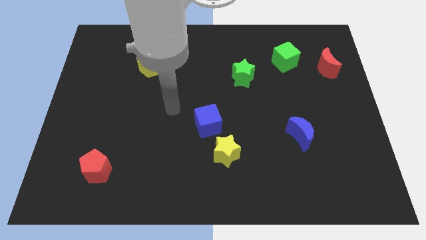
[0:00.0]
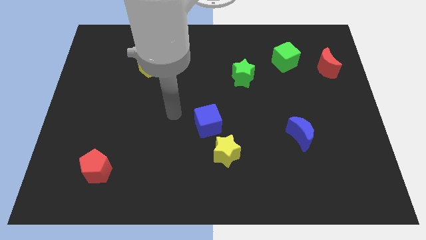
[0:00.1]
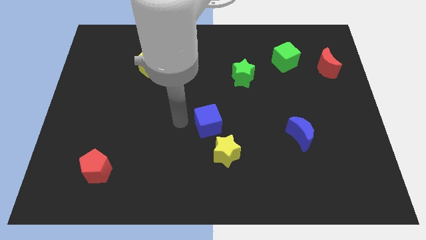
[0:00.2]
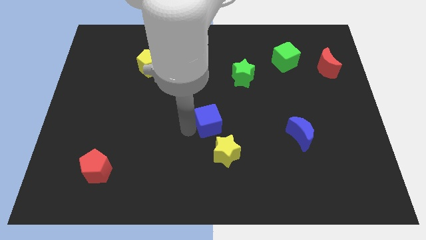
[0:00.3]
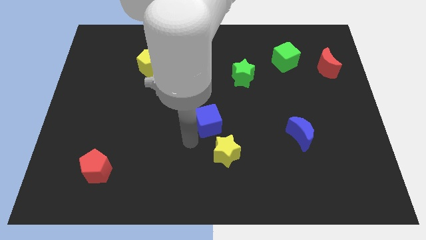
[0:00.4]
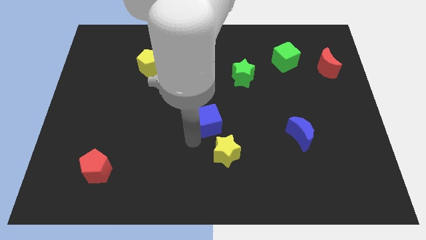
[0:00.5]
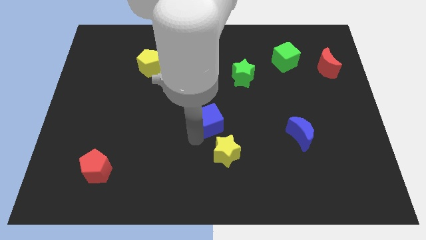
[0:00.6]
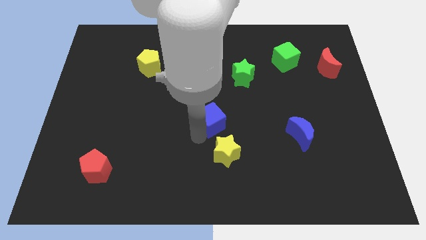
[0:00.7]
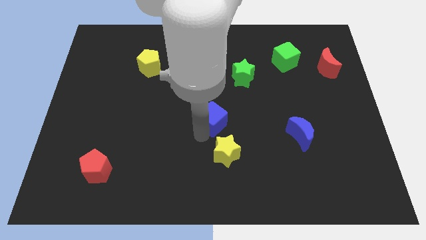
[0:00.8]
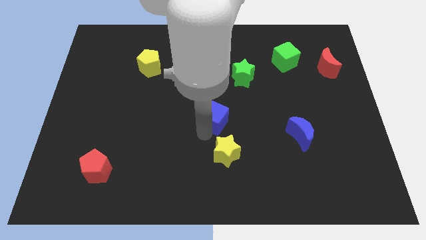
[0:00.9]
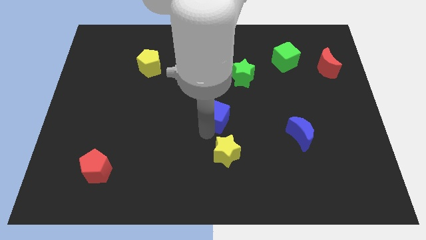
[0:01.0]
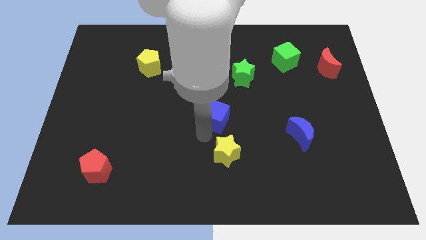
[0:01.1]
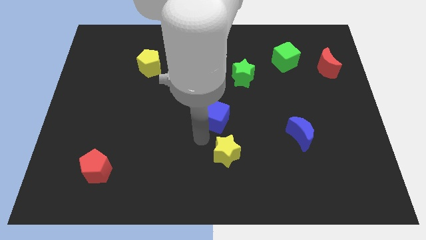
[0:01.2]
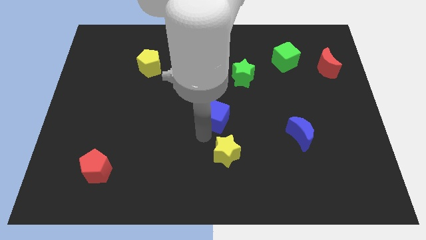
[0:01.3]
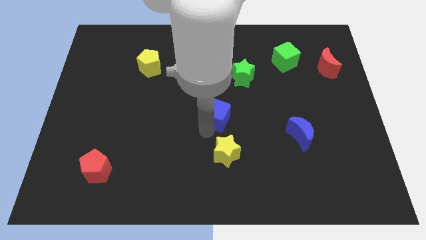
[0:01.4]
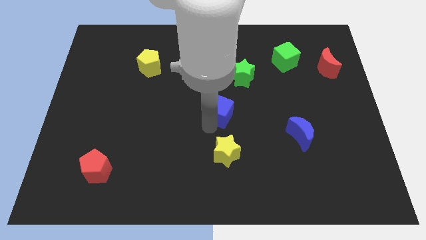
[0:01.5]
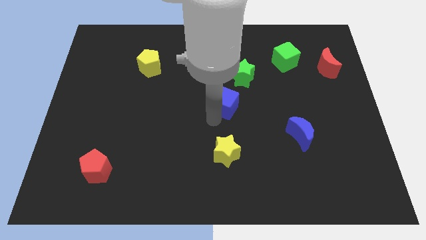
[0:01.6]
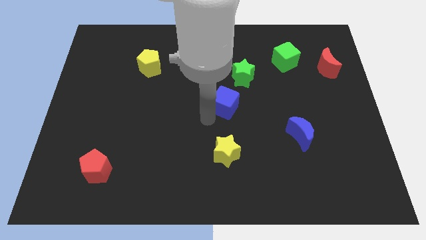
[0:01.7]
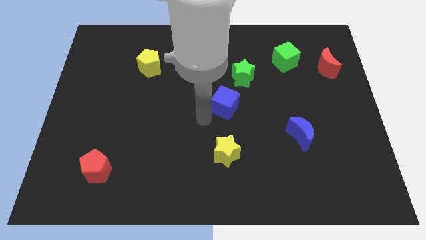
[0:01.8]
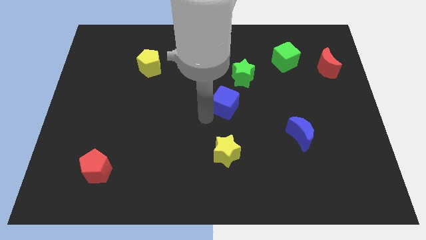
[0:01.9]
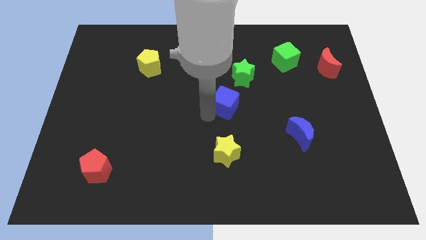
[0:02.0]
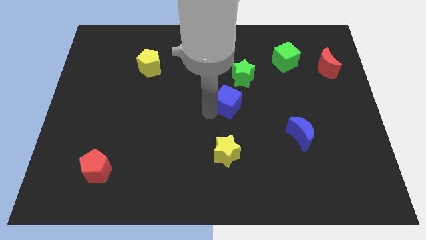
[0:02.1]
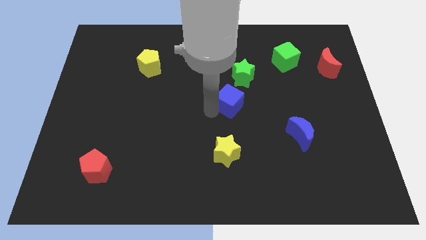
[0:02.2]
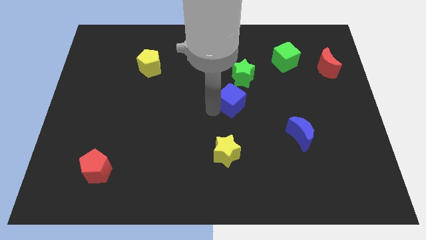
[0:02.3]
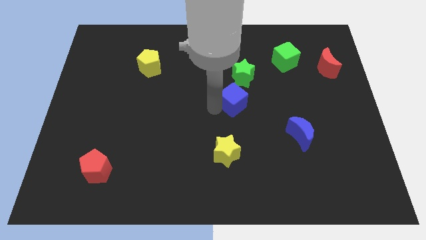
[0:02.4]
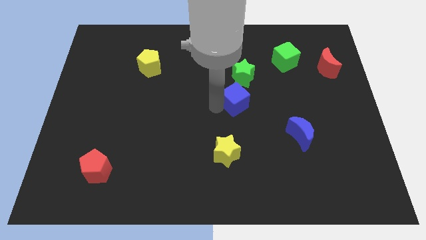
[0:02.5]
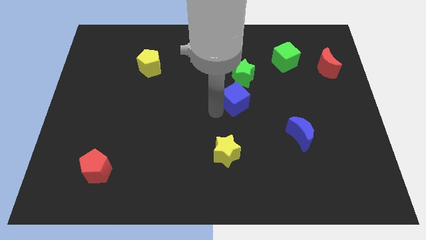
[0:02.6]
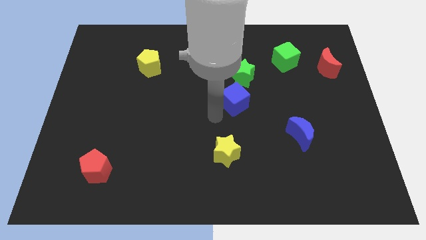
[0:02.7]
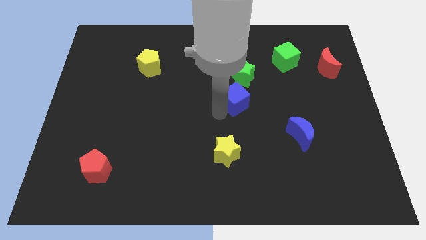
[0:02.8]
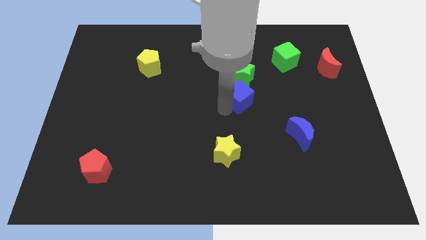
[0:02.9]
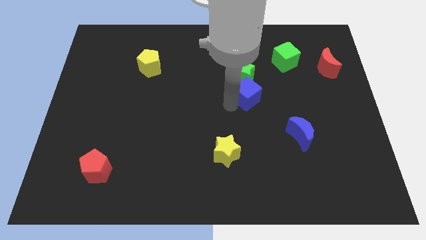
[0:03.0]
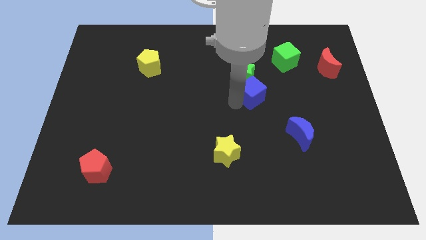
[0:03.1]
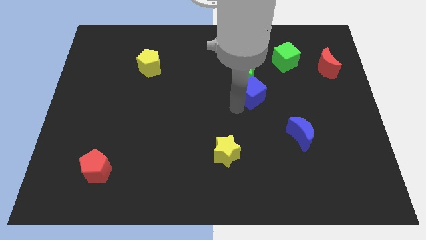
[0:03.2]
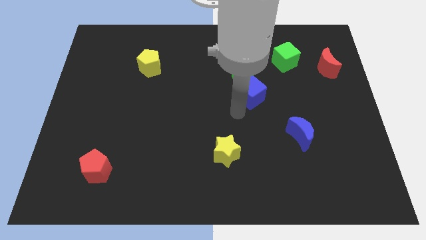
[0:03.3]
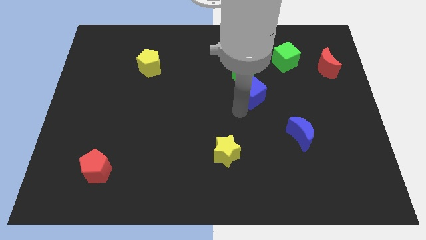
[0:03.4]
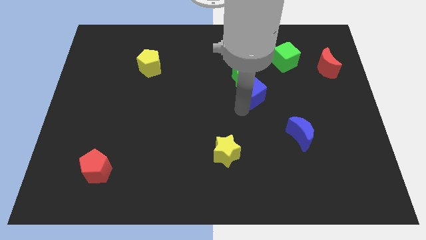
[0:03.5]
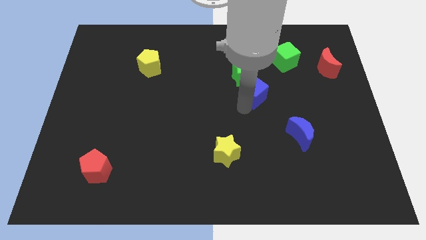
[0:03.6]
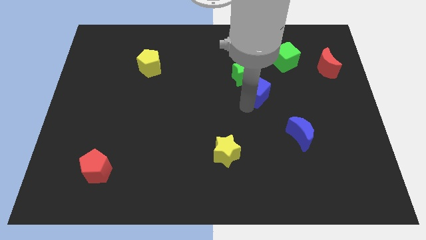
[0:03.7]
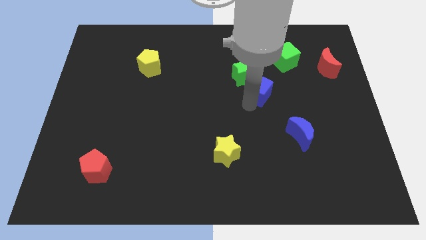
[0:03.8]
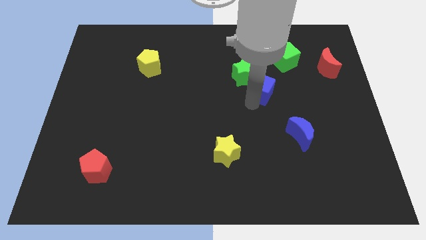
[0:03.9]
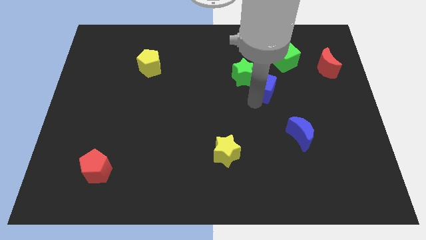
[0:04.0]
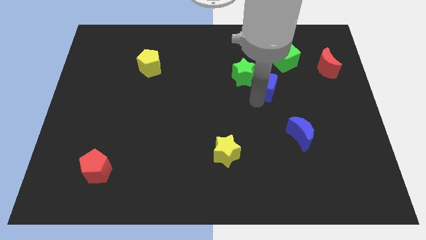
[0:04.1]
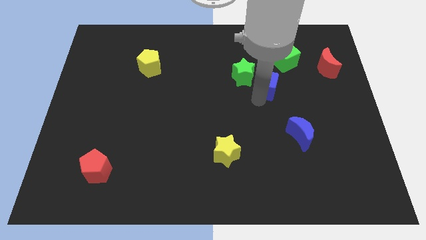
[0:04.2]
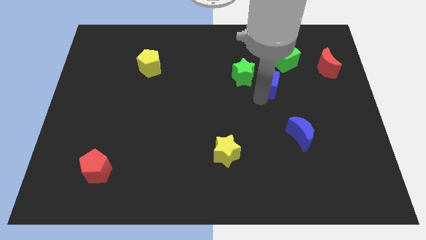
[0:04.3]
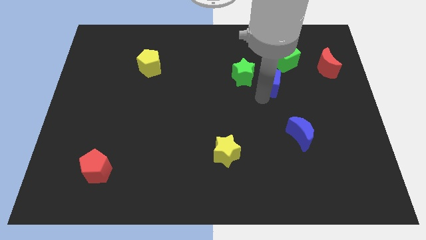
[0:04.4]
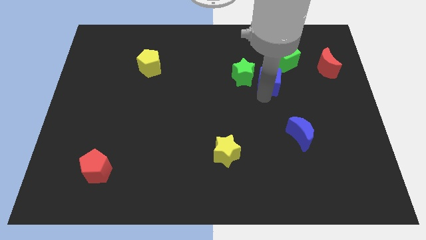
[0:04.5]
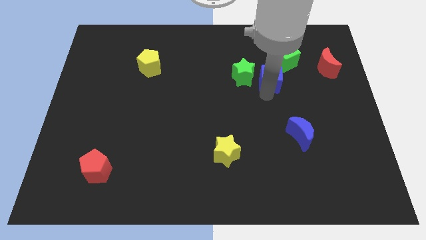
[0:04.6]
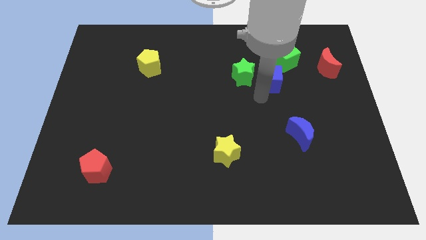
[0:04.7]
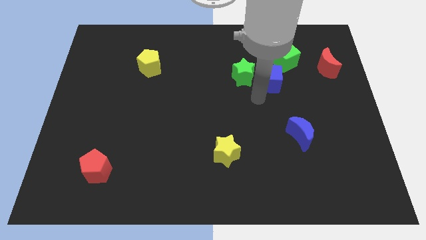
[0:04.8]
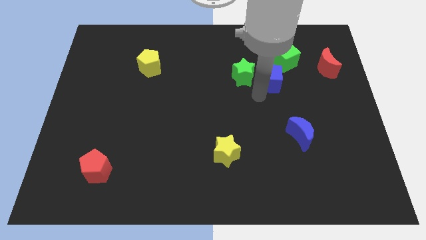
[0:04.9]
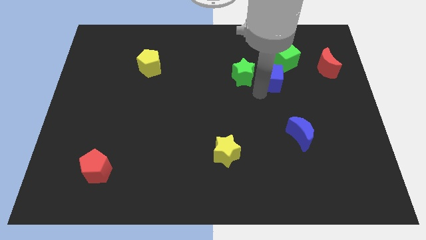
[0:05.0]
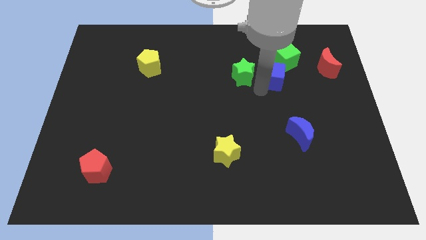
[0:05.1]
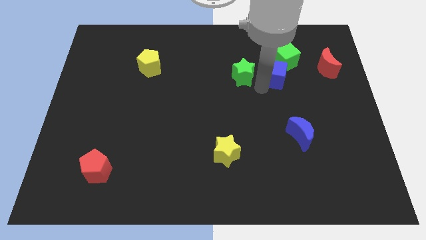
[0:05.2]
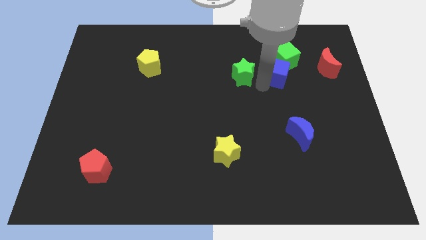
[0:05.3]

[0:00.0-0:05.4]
move the blue cube towards the green cube

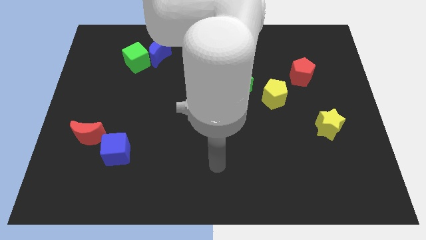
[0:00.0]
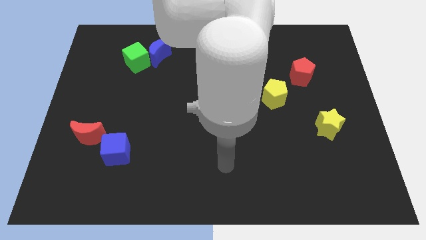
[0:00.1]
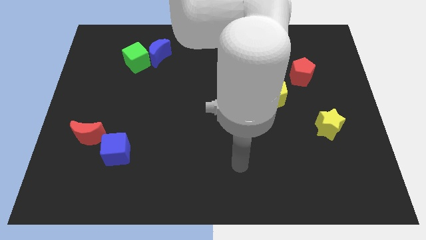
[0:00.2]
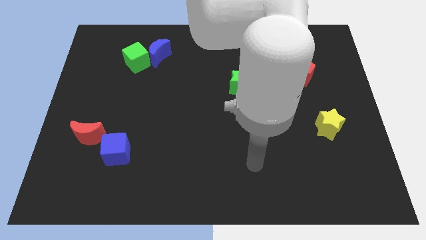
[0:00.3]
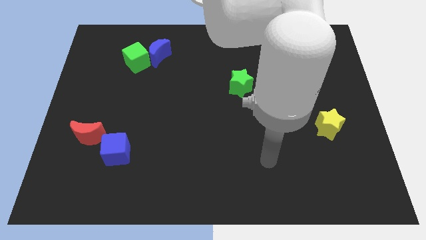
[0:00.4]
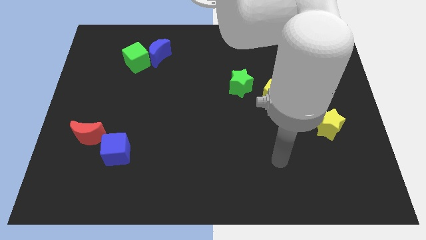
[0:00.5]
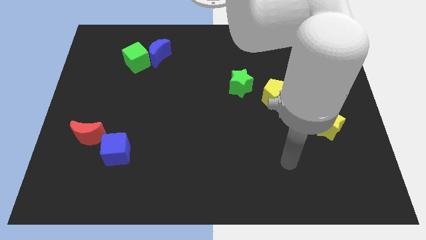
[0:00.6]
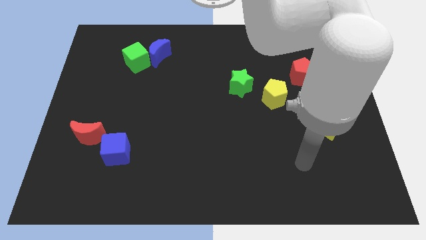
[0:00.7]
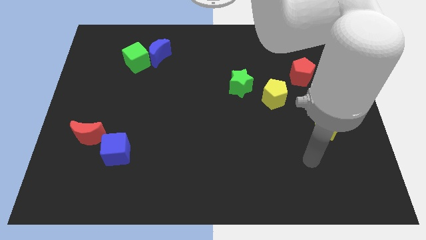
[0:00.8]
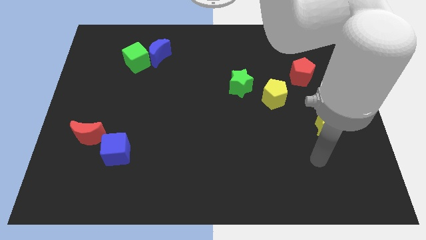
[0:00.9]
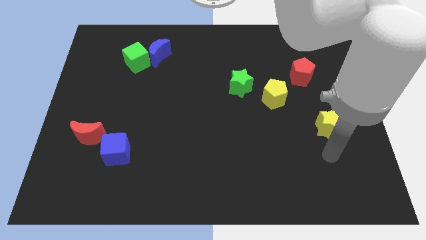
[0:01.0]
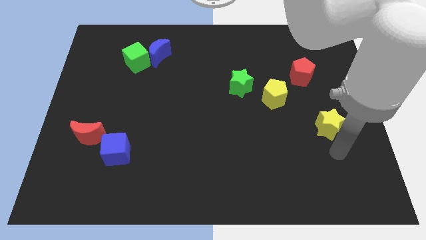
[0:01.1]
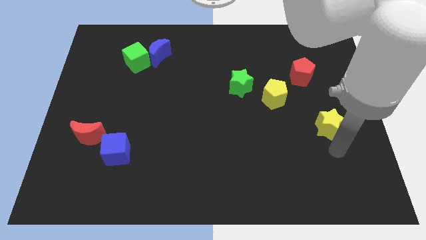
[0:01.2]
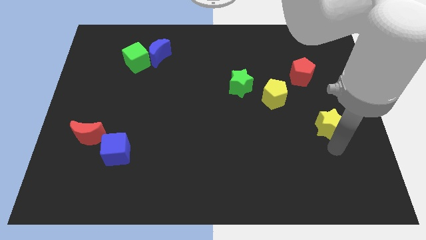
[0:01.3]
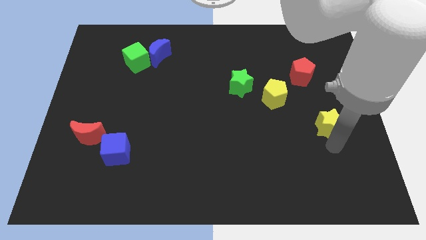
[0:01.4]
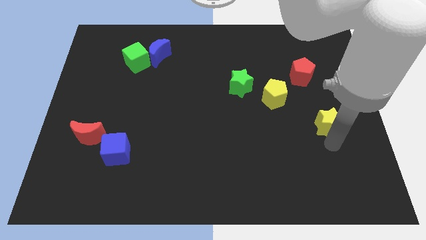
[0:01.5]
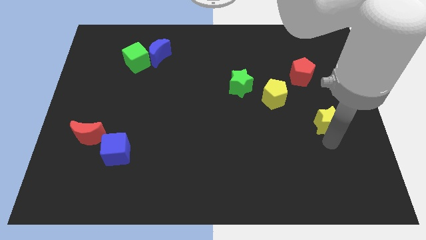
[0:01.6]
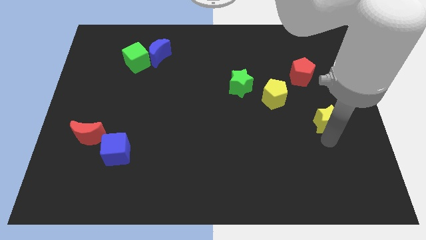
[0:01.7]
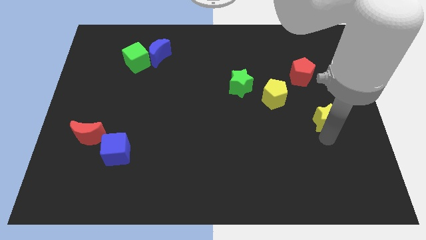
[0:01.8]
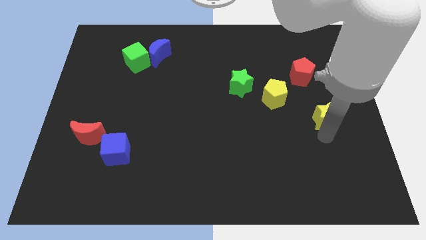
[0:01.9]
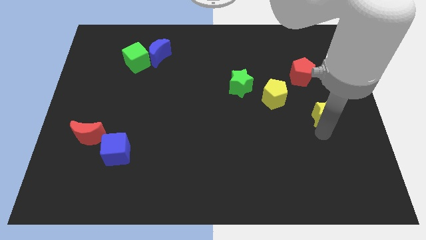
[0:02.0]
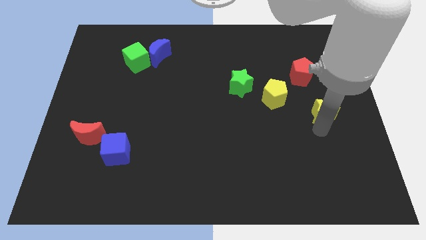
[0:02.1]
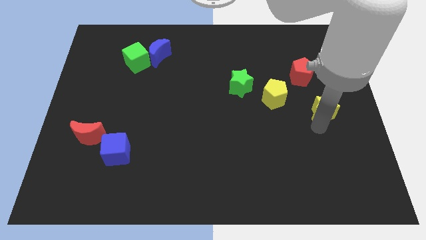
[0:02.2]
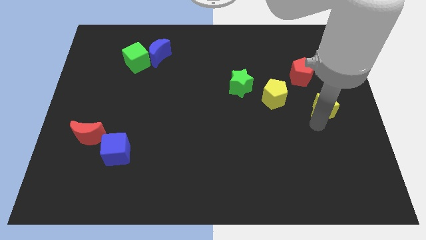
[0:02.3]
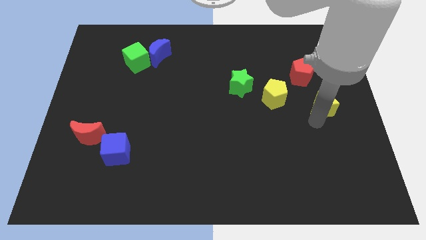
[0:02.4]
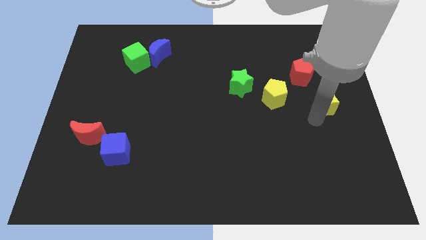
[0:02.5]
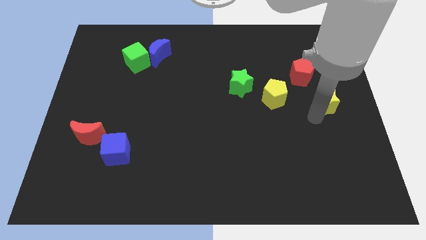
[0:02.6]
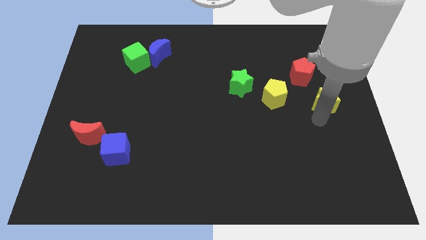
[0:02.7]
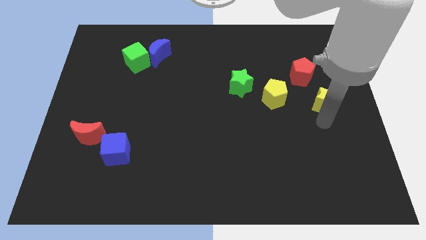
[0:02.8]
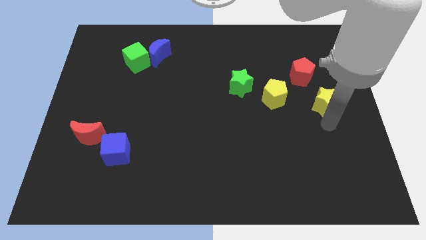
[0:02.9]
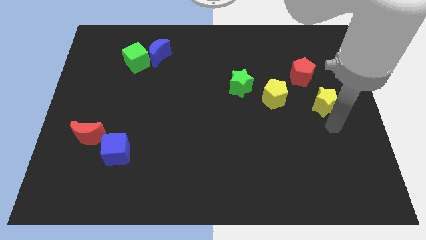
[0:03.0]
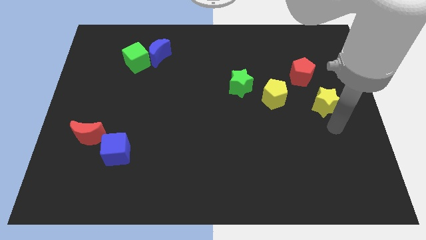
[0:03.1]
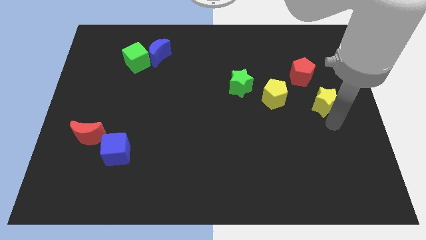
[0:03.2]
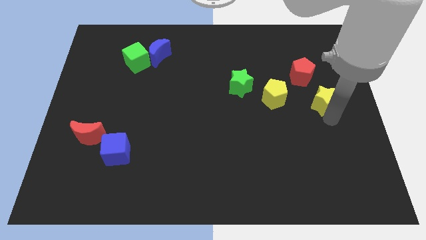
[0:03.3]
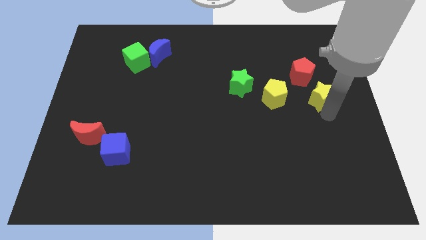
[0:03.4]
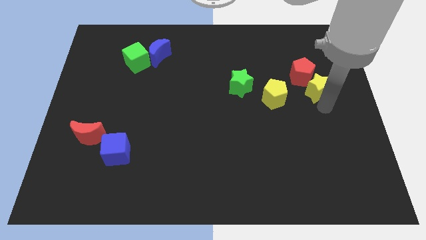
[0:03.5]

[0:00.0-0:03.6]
push the yellow star next to the red pentagon
